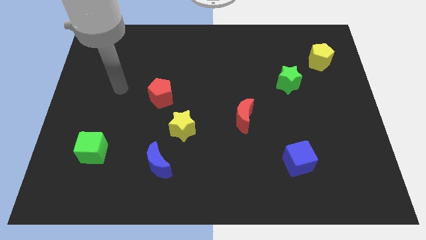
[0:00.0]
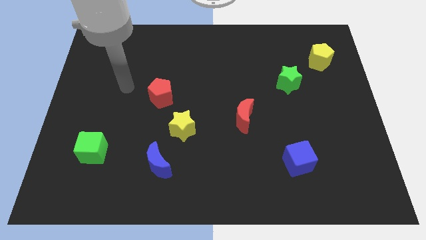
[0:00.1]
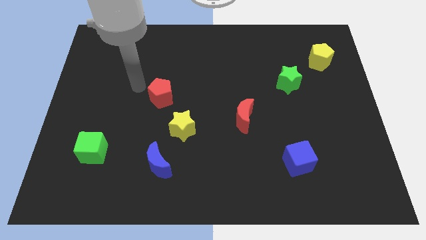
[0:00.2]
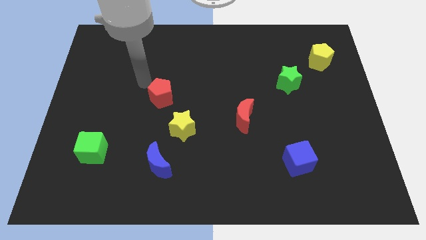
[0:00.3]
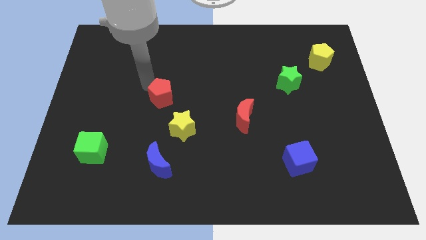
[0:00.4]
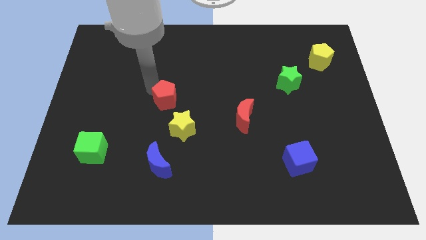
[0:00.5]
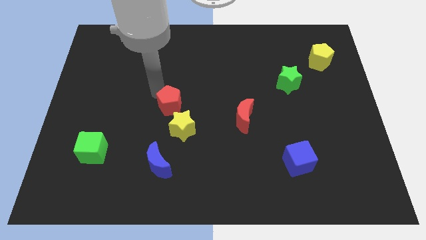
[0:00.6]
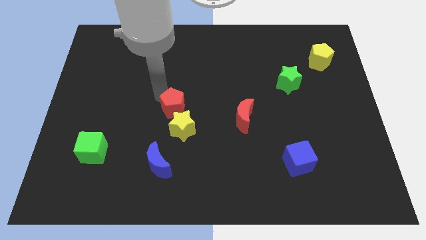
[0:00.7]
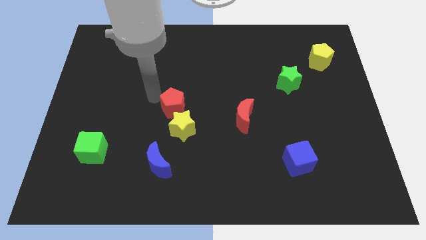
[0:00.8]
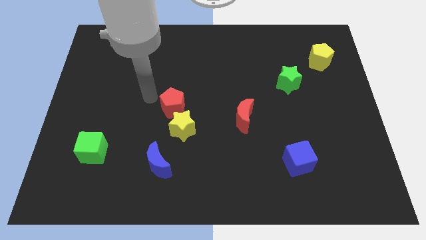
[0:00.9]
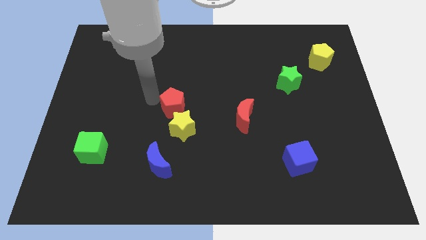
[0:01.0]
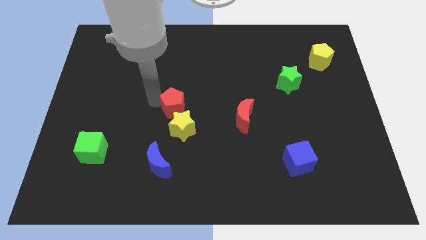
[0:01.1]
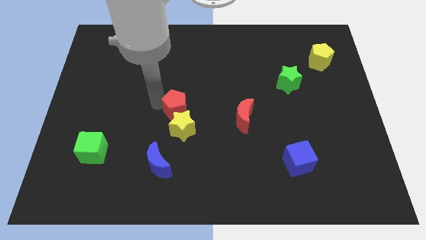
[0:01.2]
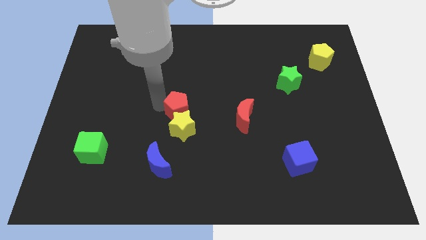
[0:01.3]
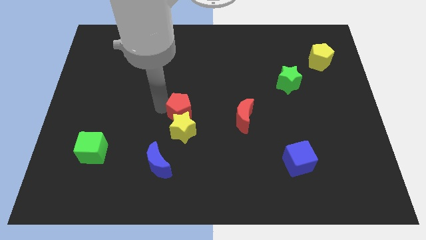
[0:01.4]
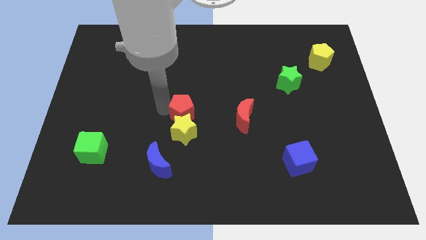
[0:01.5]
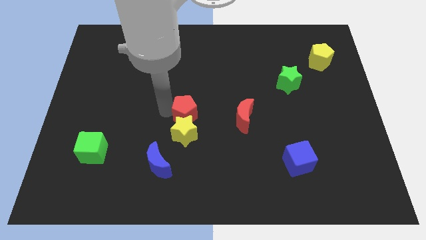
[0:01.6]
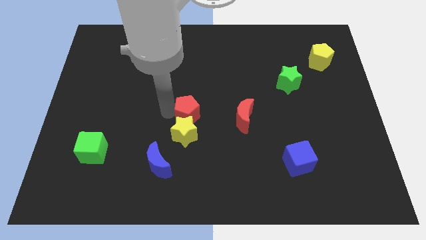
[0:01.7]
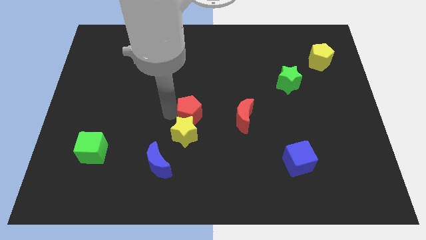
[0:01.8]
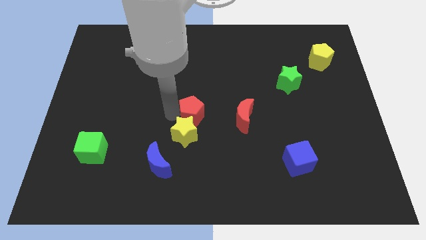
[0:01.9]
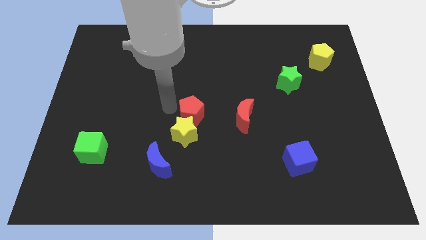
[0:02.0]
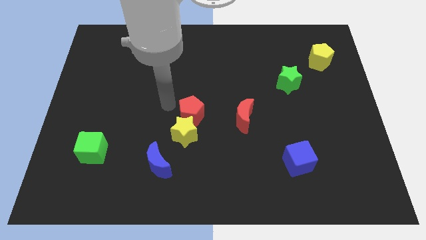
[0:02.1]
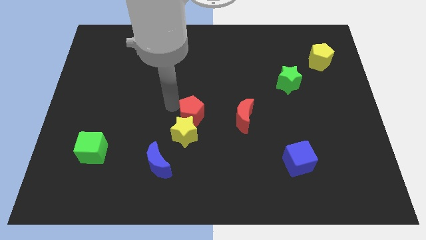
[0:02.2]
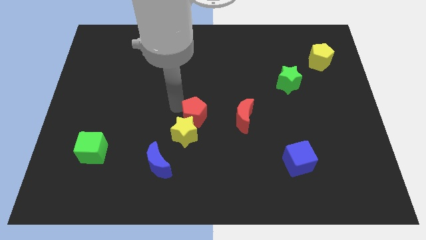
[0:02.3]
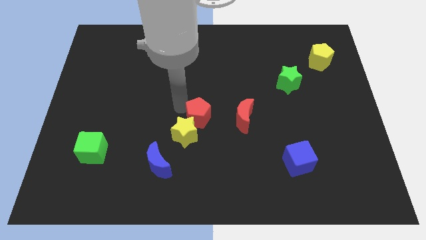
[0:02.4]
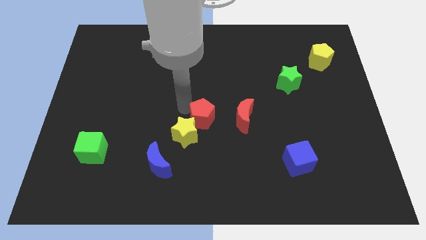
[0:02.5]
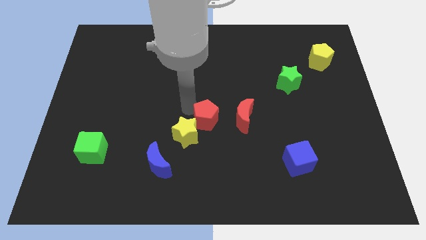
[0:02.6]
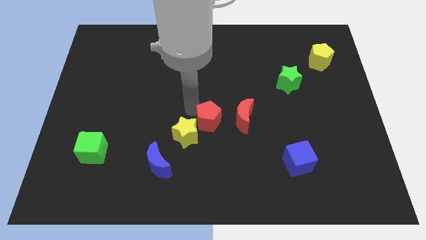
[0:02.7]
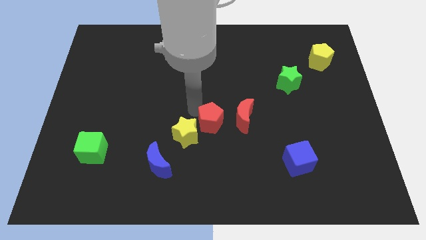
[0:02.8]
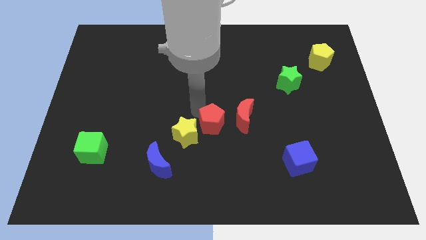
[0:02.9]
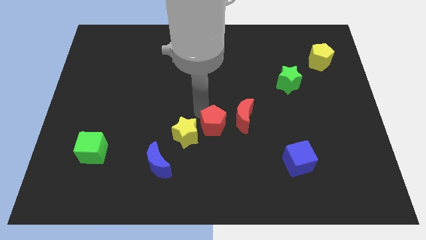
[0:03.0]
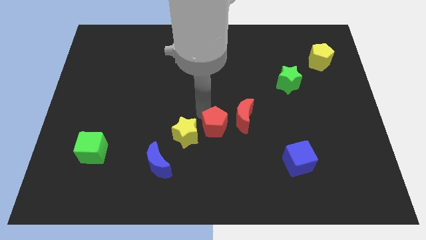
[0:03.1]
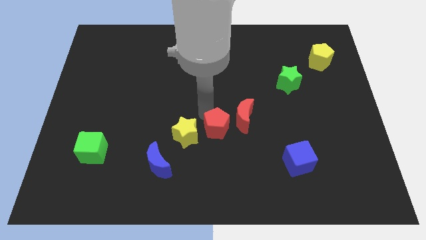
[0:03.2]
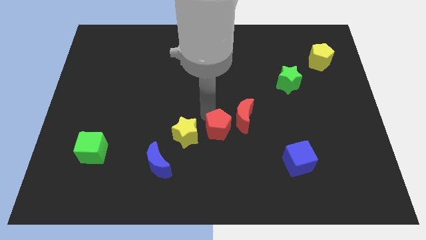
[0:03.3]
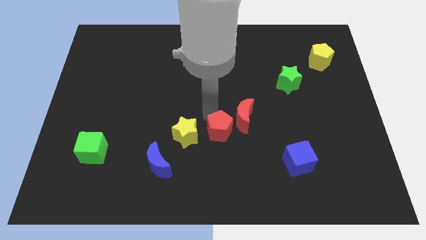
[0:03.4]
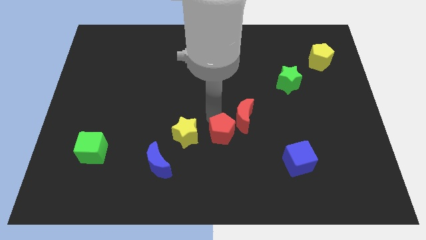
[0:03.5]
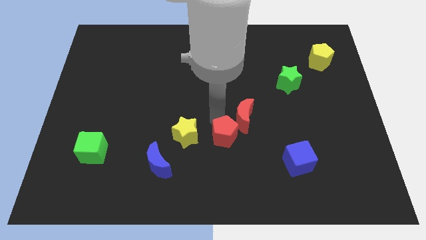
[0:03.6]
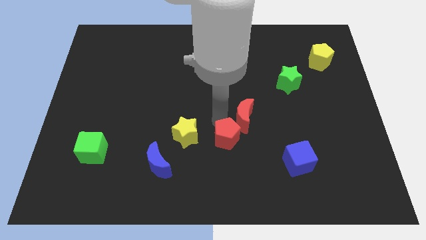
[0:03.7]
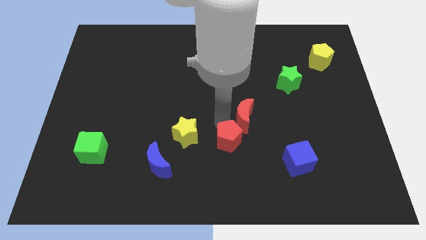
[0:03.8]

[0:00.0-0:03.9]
move the red pentagon diagonally downwards and to the right

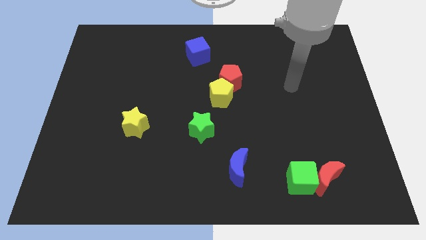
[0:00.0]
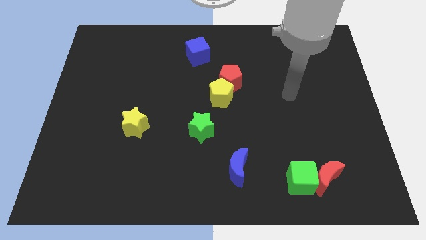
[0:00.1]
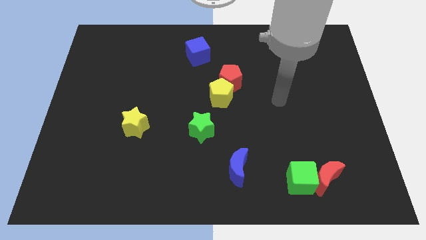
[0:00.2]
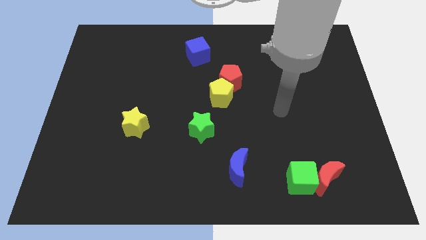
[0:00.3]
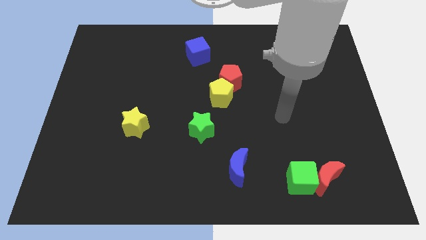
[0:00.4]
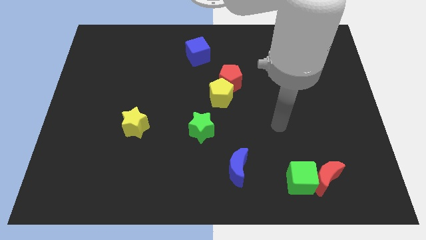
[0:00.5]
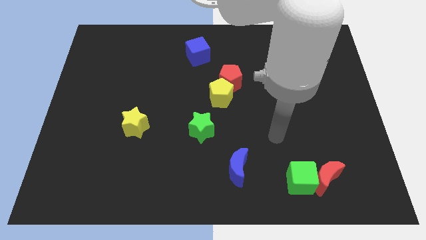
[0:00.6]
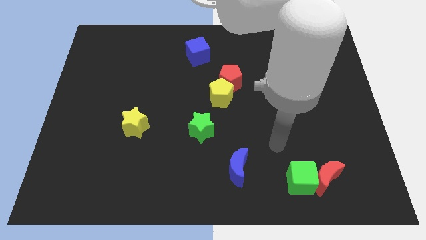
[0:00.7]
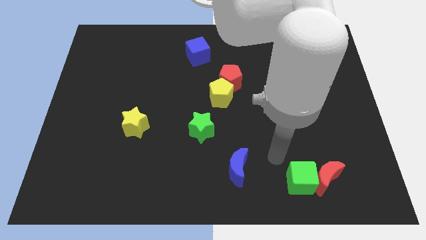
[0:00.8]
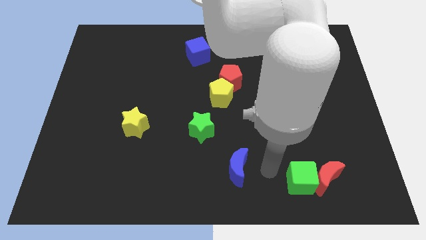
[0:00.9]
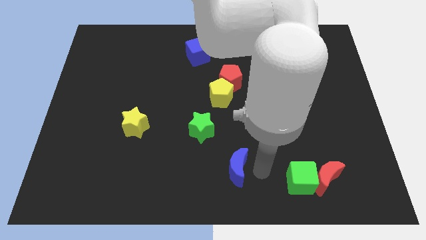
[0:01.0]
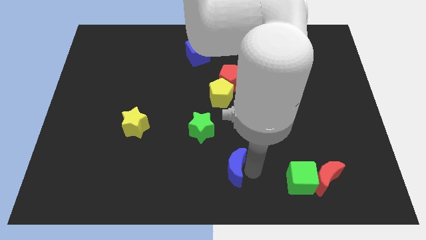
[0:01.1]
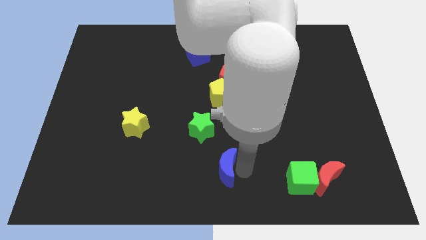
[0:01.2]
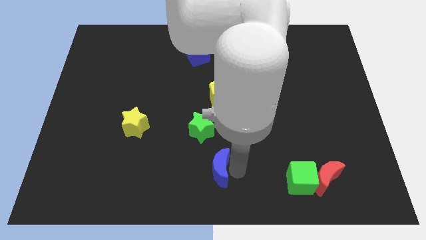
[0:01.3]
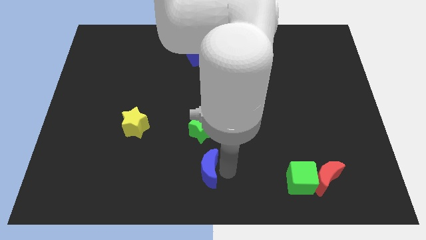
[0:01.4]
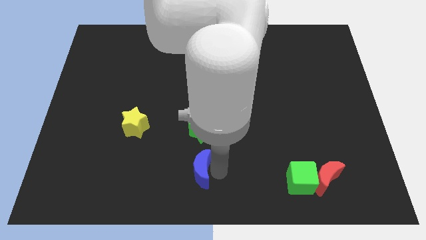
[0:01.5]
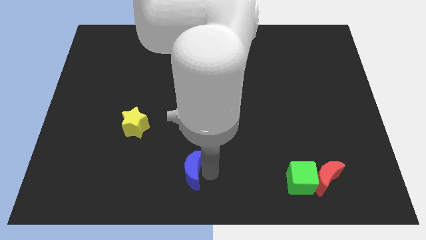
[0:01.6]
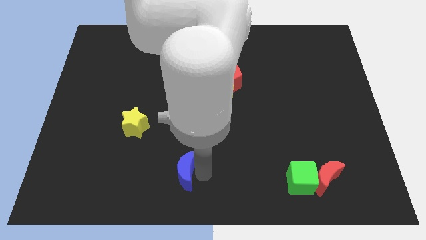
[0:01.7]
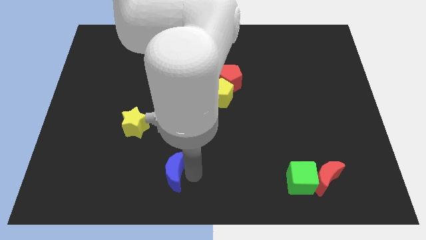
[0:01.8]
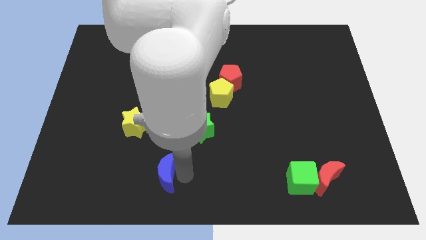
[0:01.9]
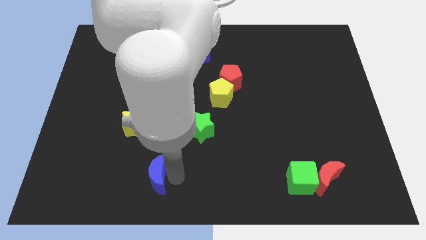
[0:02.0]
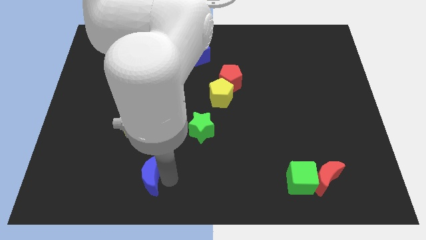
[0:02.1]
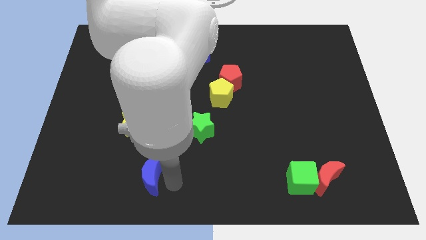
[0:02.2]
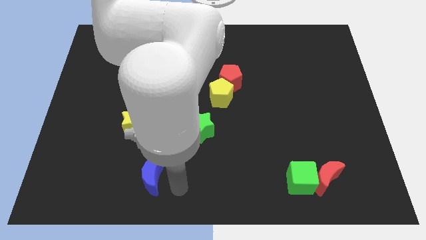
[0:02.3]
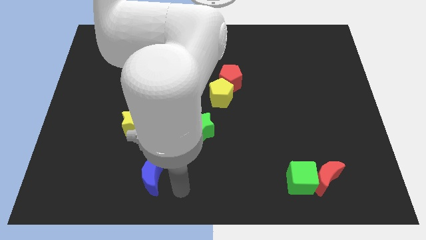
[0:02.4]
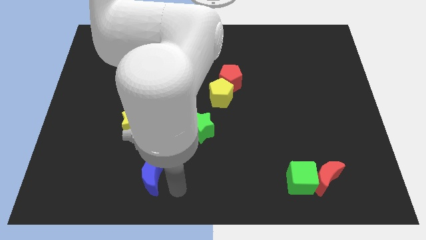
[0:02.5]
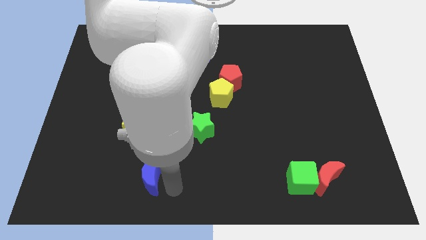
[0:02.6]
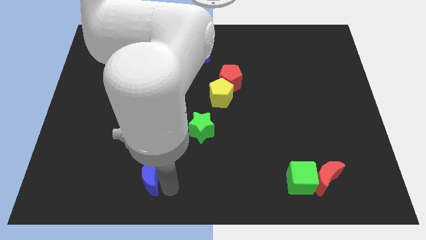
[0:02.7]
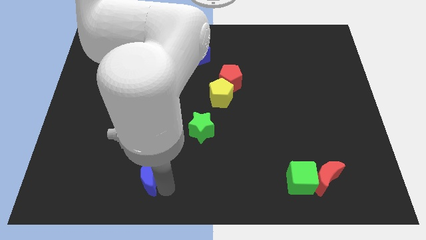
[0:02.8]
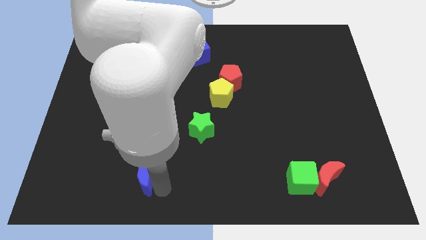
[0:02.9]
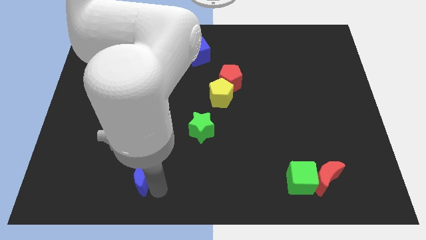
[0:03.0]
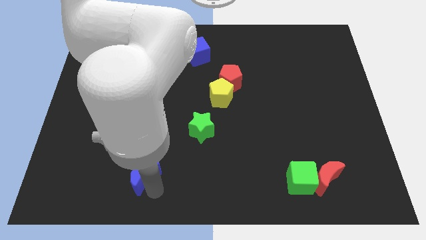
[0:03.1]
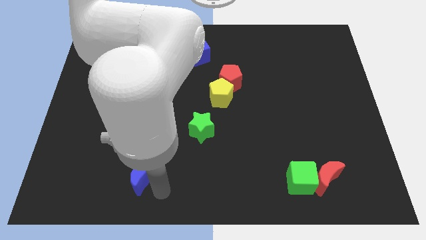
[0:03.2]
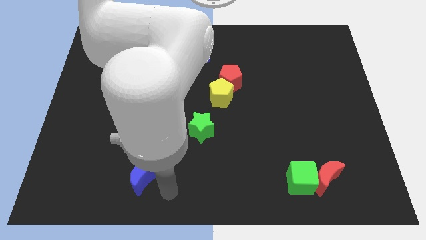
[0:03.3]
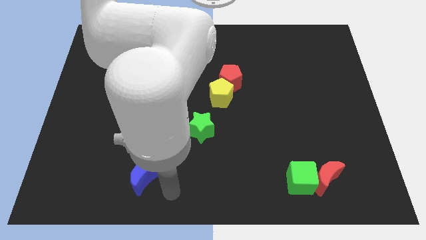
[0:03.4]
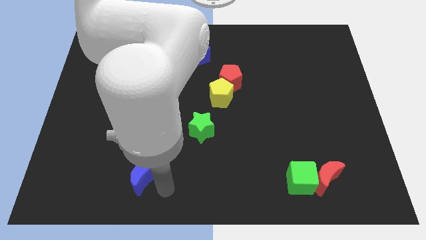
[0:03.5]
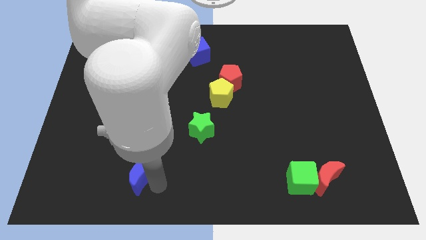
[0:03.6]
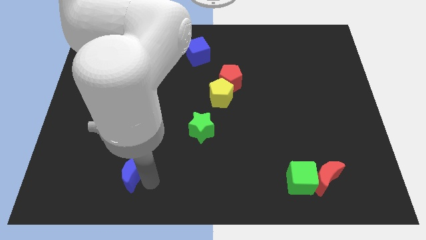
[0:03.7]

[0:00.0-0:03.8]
push the blue moon to the left

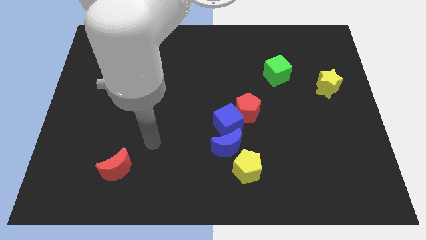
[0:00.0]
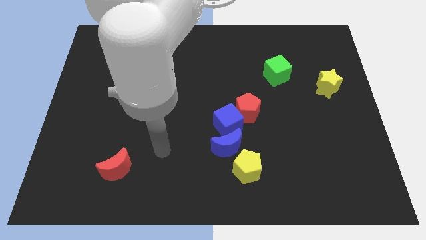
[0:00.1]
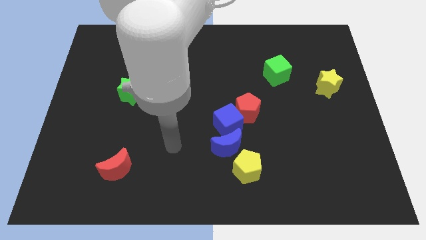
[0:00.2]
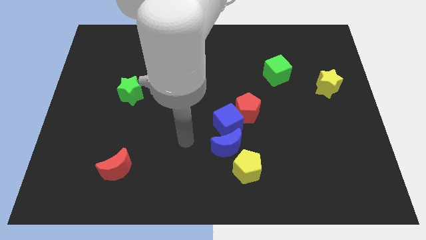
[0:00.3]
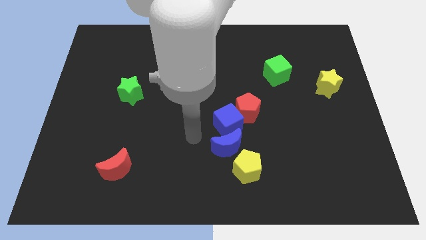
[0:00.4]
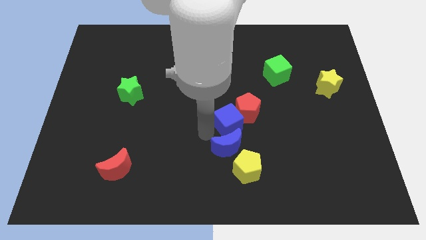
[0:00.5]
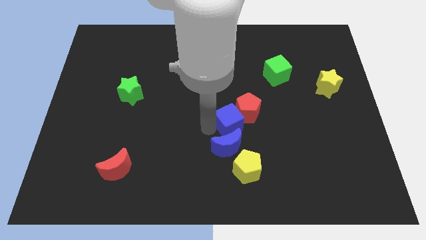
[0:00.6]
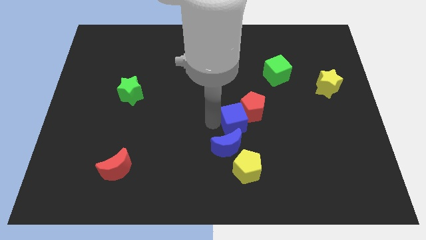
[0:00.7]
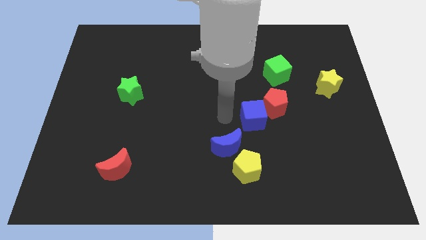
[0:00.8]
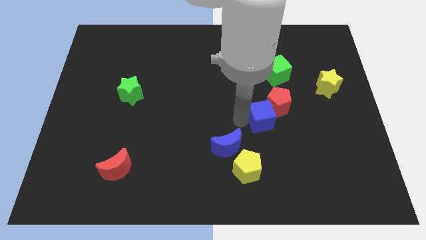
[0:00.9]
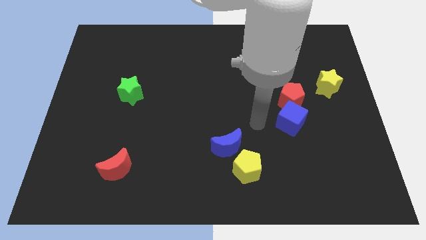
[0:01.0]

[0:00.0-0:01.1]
slightly slide the red pentagon up and to the right
